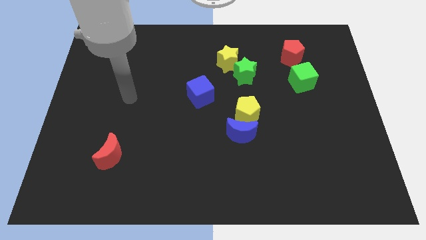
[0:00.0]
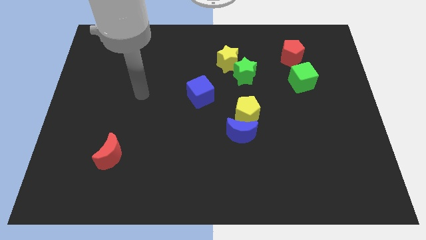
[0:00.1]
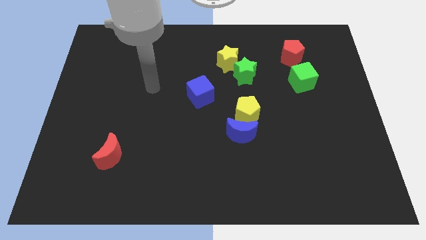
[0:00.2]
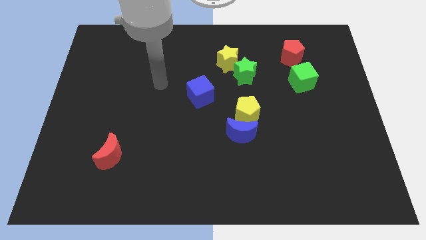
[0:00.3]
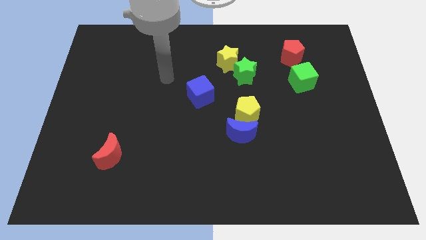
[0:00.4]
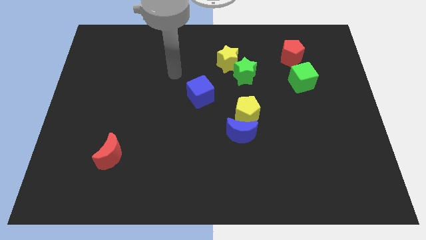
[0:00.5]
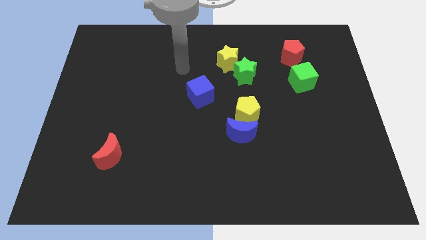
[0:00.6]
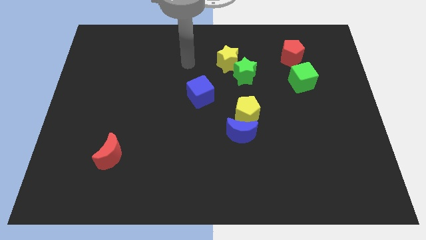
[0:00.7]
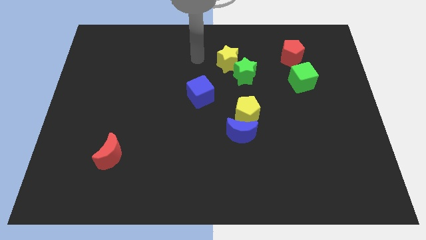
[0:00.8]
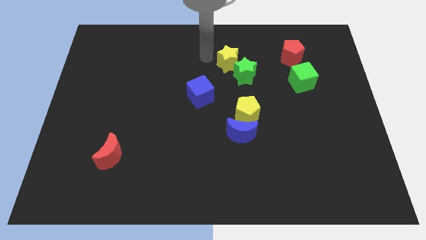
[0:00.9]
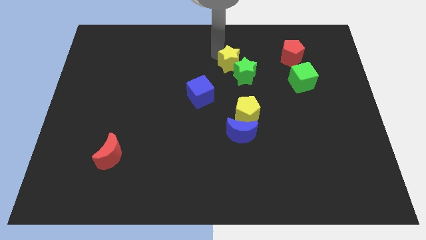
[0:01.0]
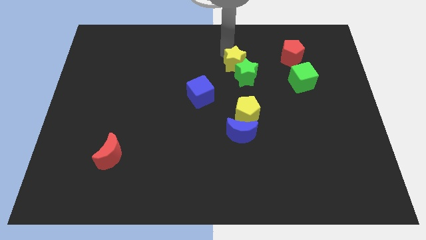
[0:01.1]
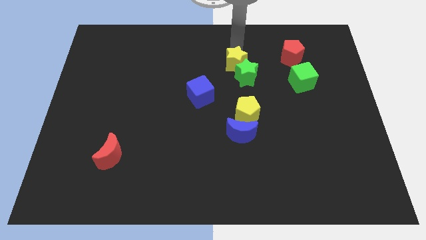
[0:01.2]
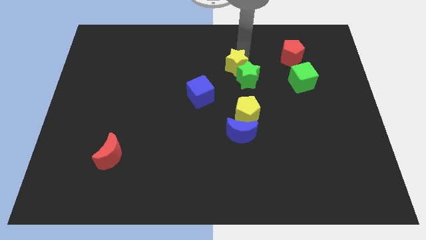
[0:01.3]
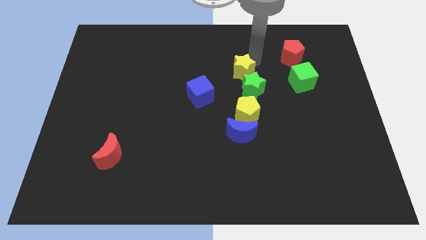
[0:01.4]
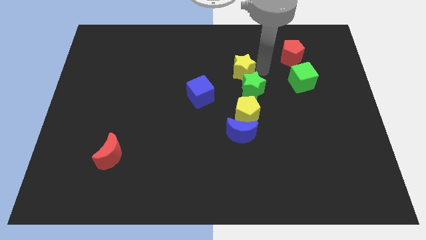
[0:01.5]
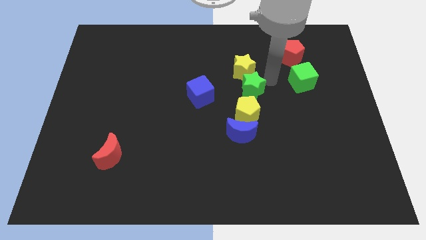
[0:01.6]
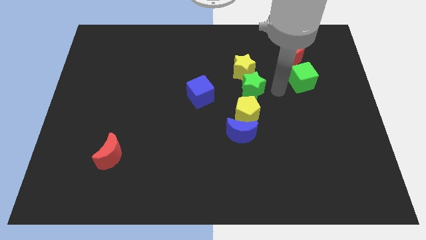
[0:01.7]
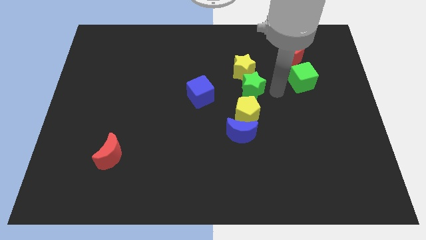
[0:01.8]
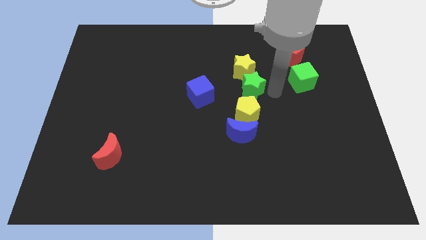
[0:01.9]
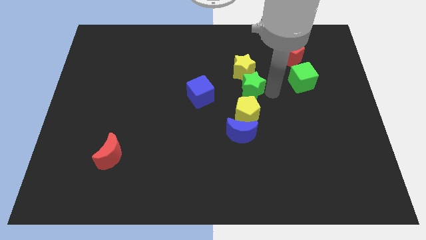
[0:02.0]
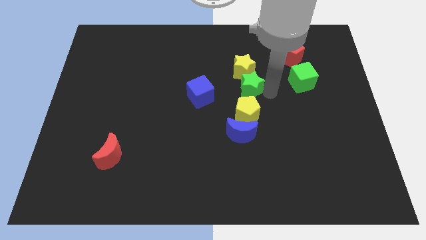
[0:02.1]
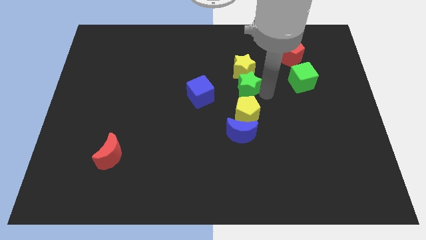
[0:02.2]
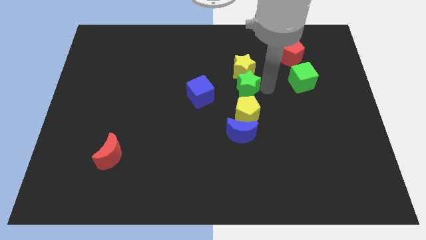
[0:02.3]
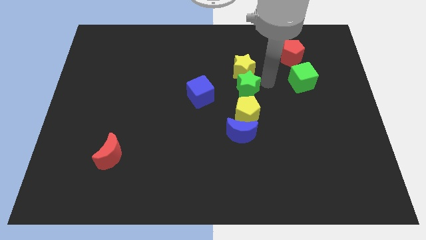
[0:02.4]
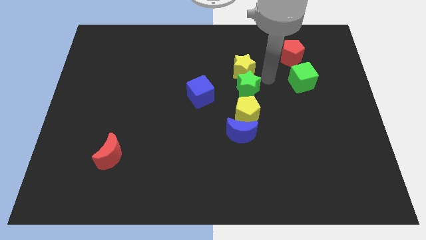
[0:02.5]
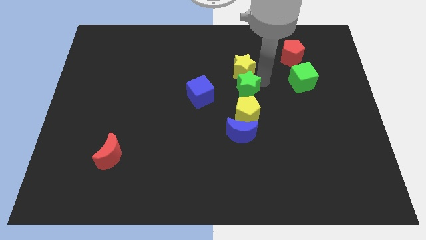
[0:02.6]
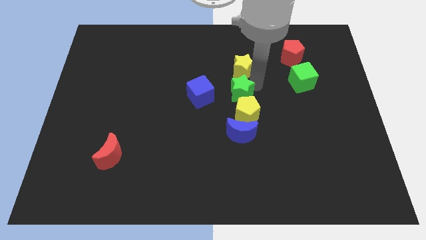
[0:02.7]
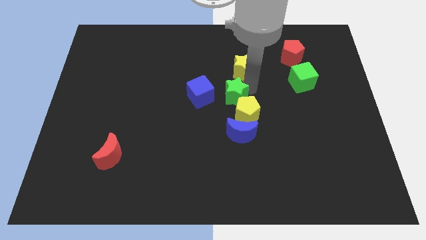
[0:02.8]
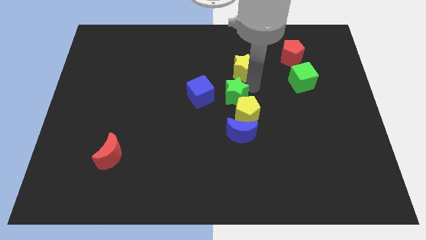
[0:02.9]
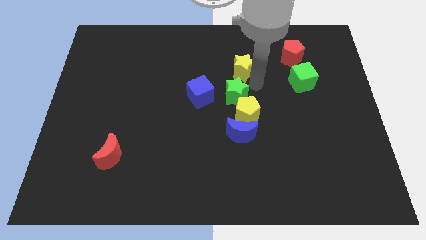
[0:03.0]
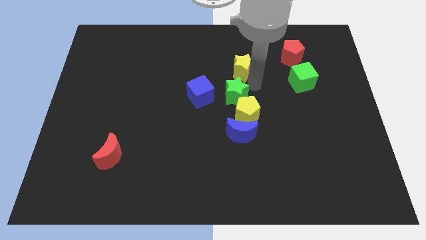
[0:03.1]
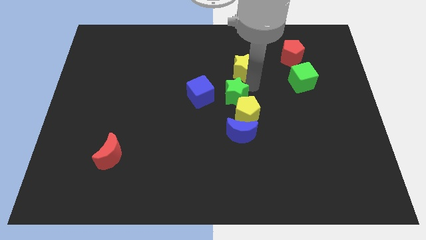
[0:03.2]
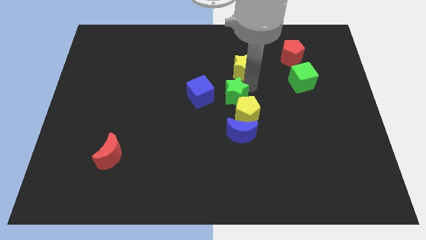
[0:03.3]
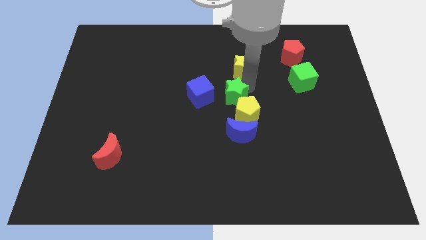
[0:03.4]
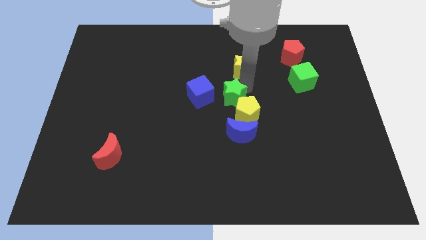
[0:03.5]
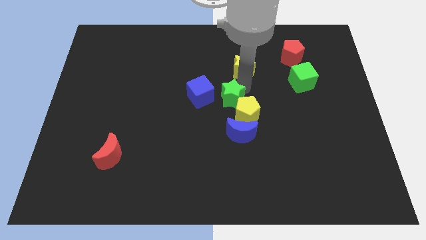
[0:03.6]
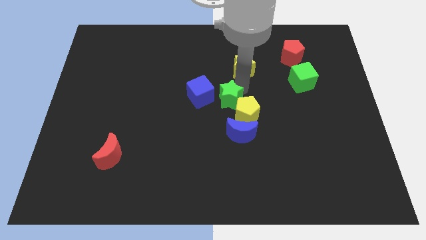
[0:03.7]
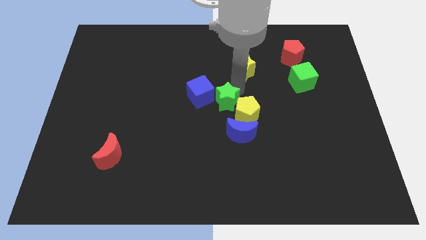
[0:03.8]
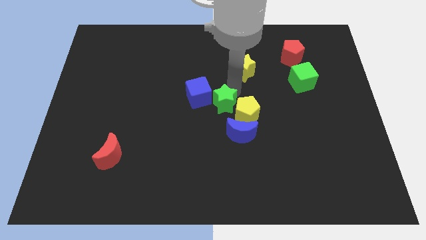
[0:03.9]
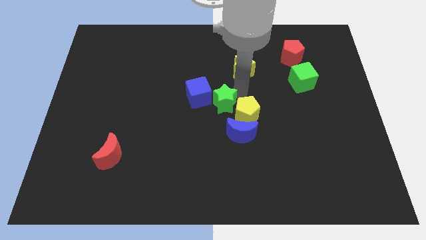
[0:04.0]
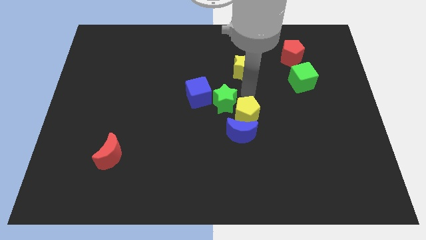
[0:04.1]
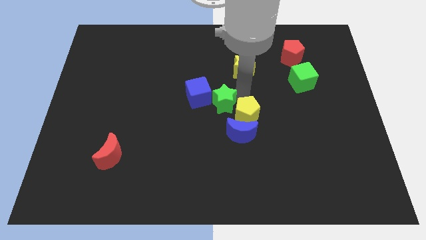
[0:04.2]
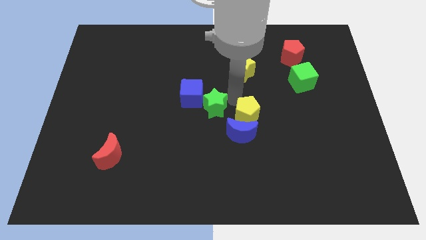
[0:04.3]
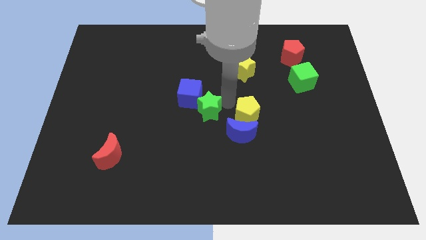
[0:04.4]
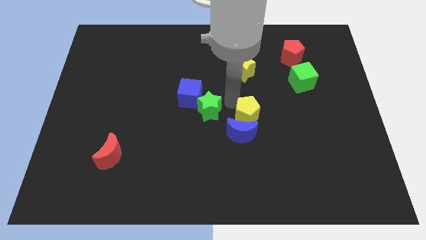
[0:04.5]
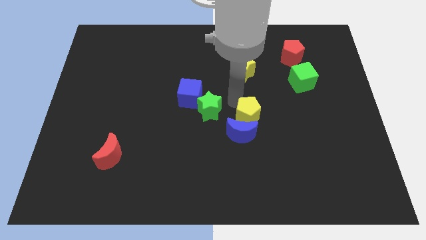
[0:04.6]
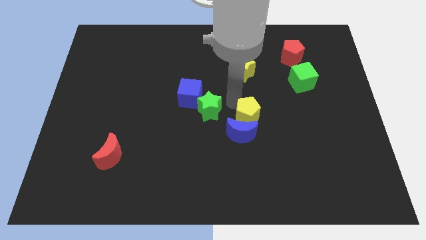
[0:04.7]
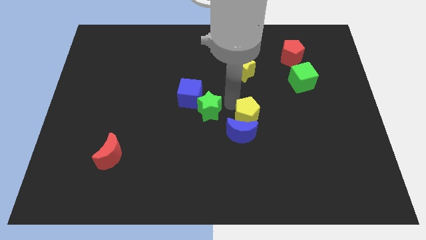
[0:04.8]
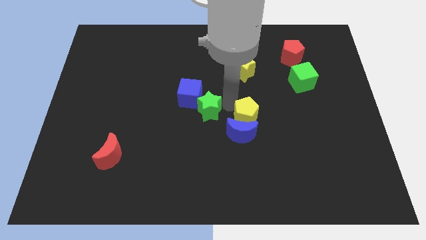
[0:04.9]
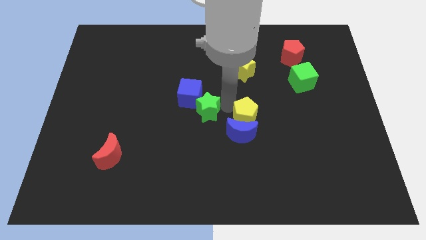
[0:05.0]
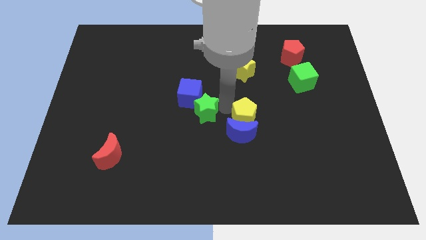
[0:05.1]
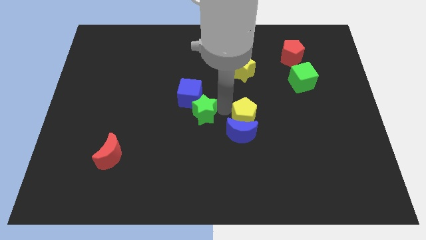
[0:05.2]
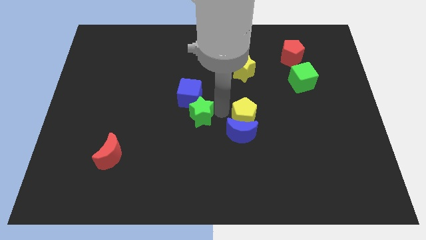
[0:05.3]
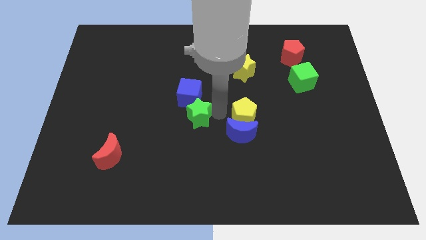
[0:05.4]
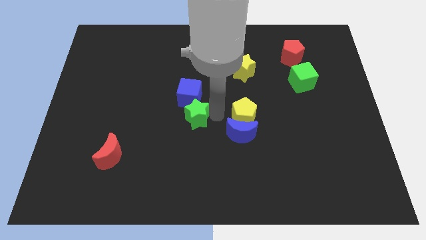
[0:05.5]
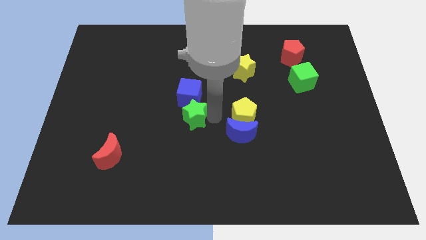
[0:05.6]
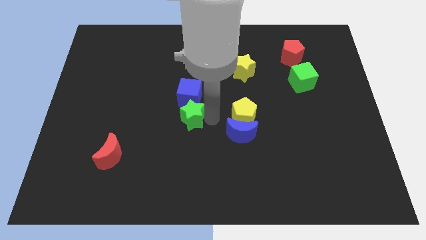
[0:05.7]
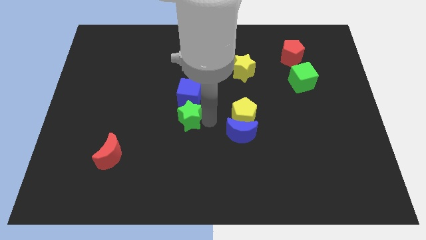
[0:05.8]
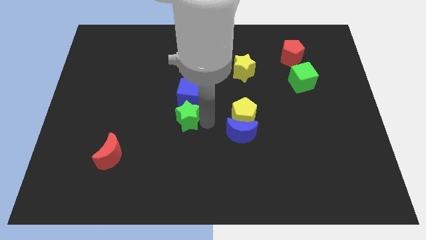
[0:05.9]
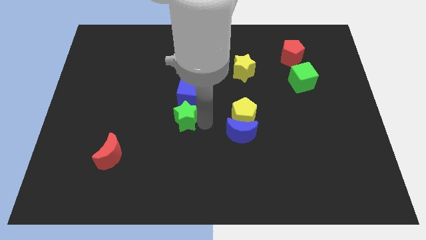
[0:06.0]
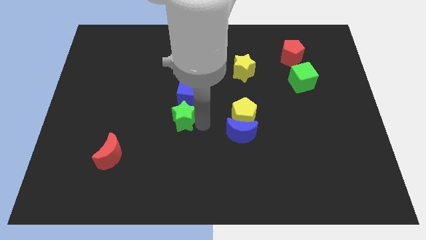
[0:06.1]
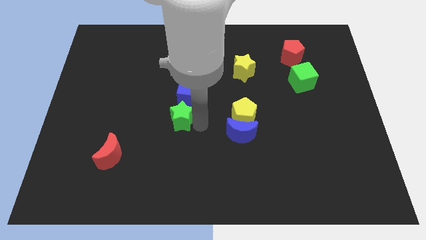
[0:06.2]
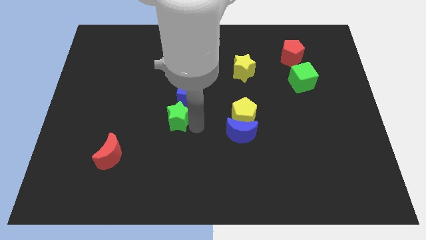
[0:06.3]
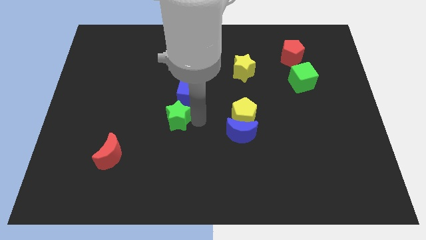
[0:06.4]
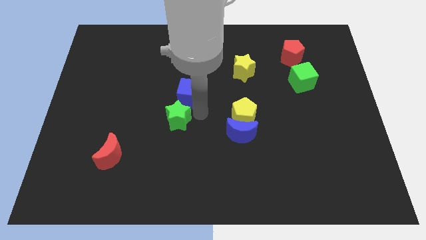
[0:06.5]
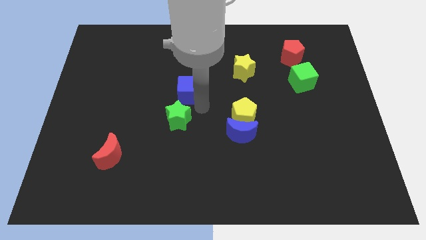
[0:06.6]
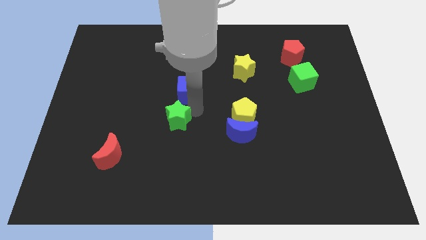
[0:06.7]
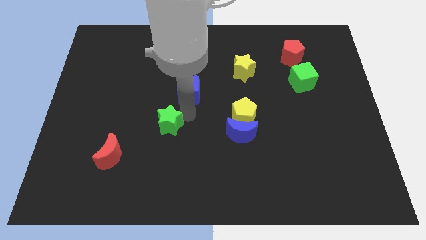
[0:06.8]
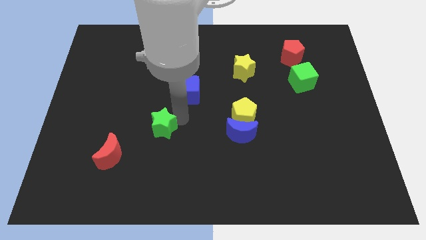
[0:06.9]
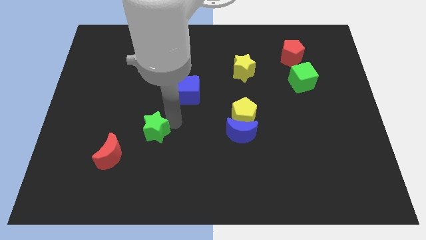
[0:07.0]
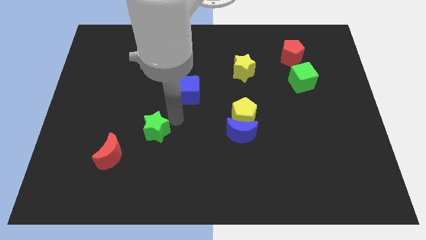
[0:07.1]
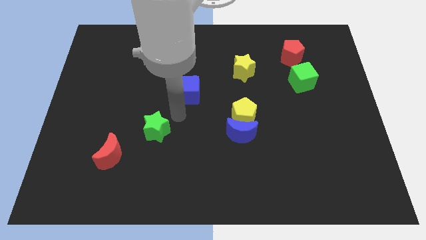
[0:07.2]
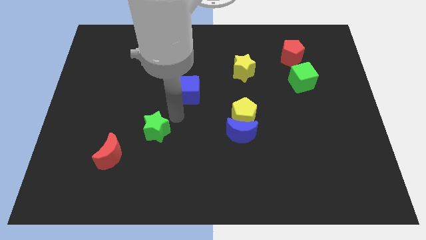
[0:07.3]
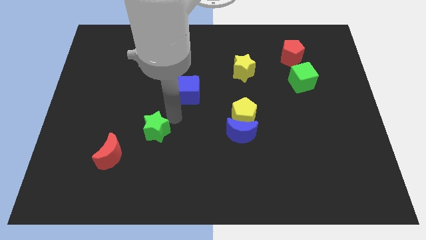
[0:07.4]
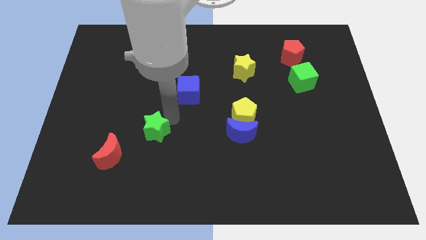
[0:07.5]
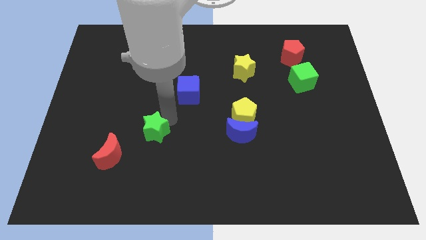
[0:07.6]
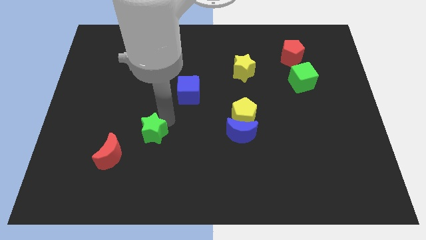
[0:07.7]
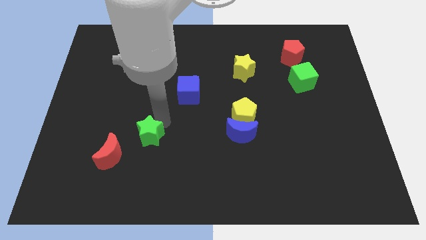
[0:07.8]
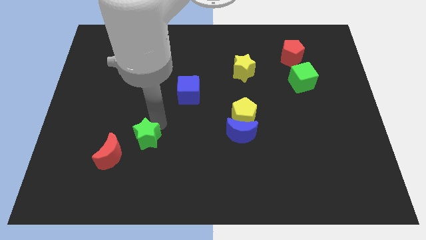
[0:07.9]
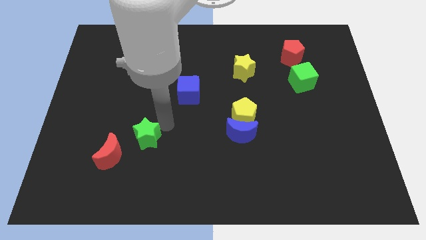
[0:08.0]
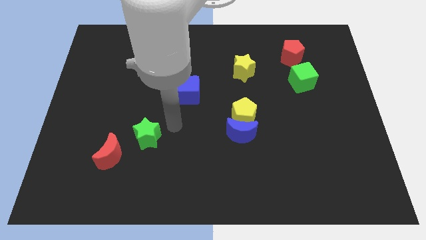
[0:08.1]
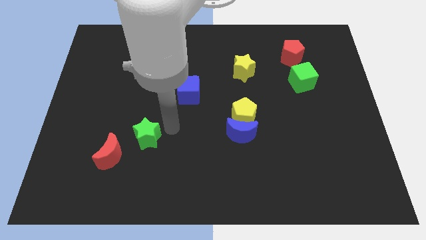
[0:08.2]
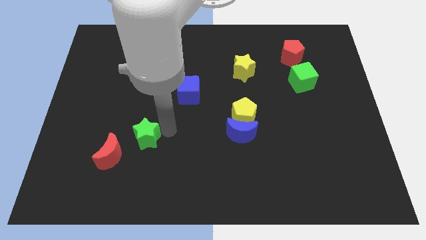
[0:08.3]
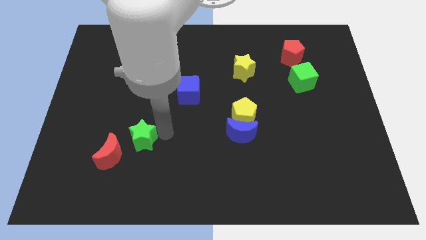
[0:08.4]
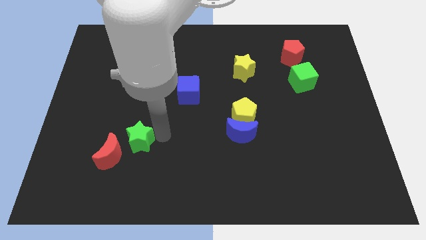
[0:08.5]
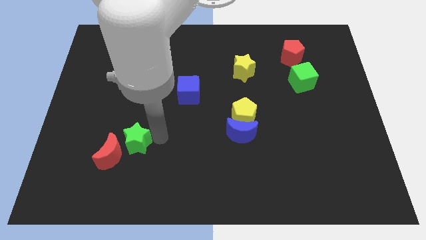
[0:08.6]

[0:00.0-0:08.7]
slide the green star close to the red moon
